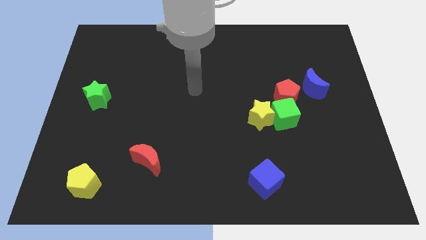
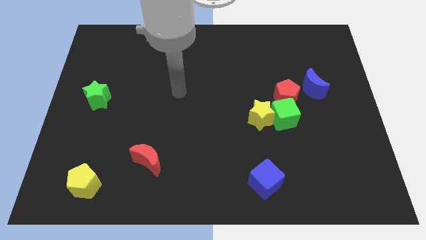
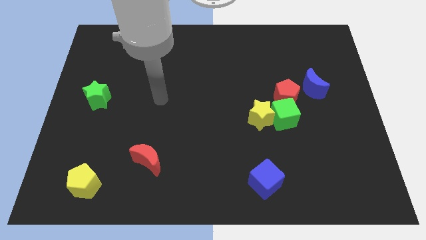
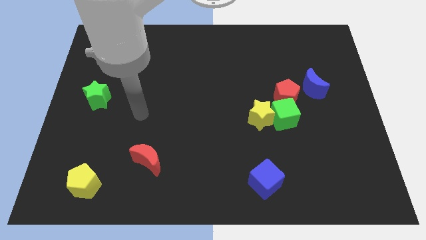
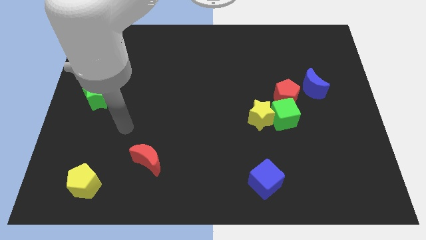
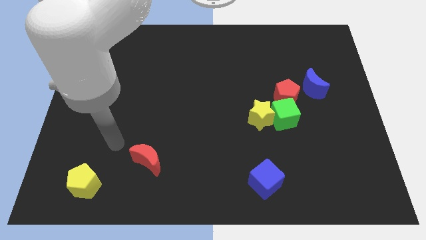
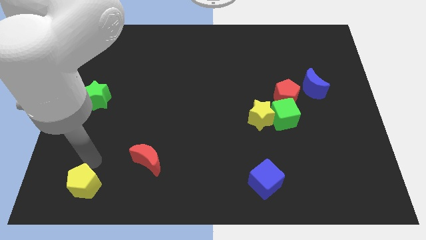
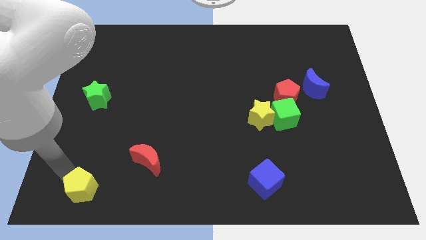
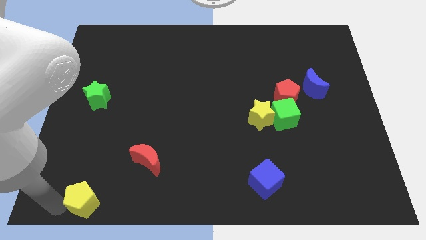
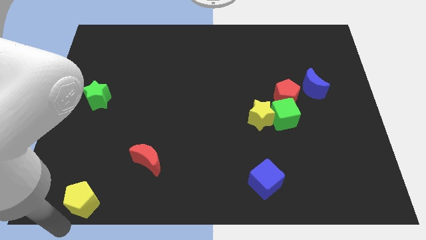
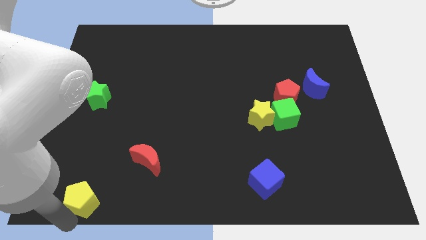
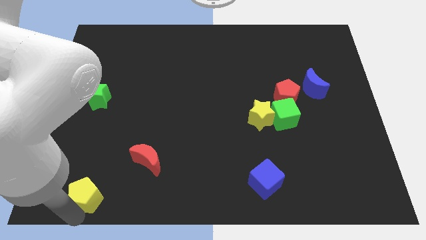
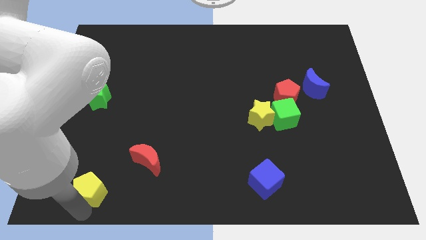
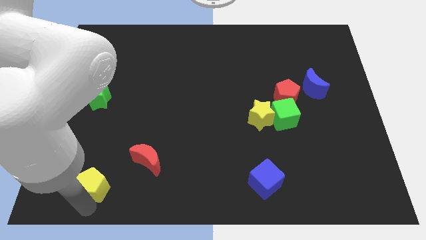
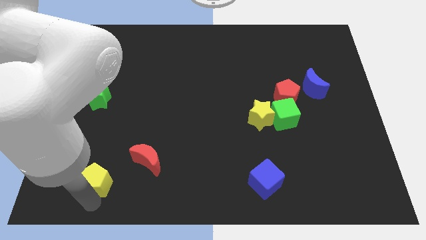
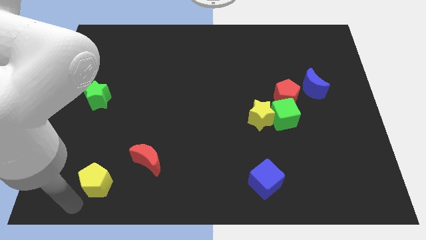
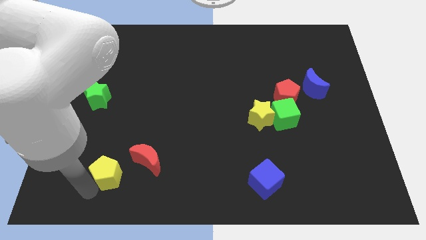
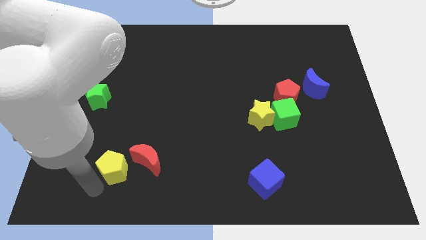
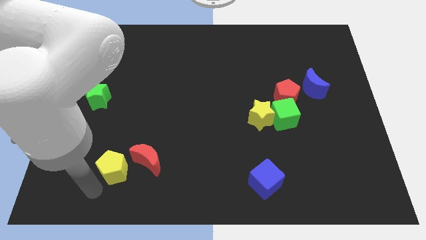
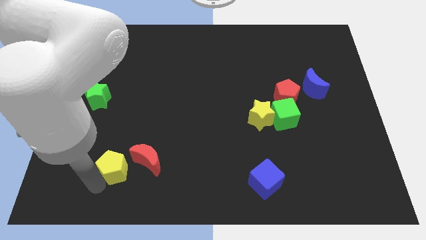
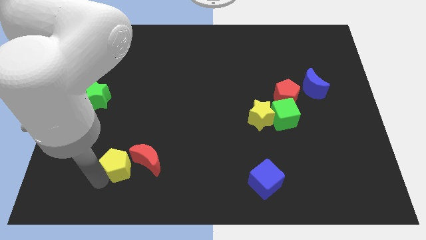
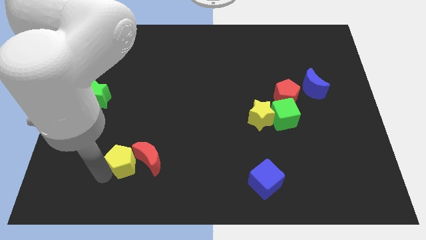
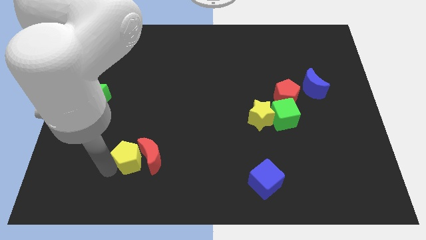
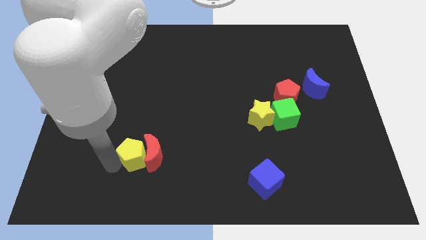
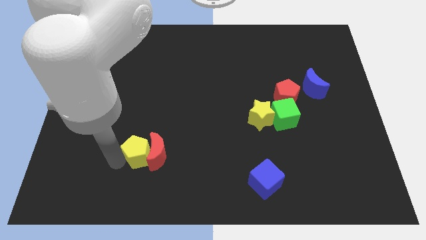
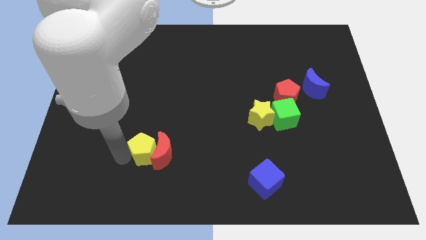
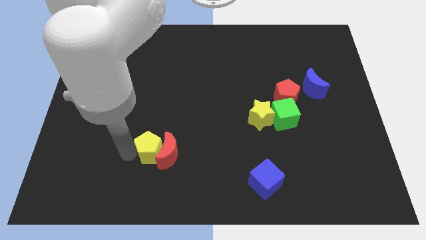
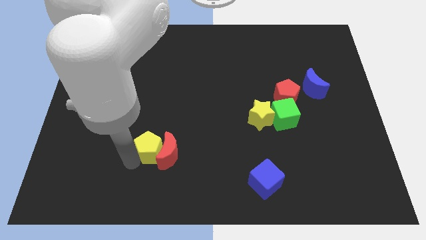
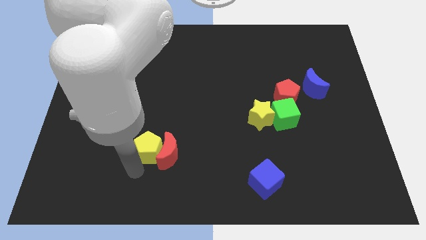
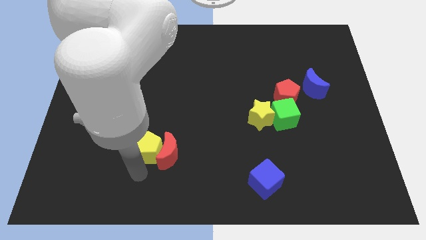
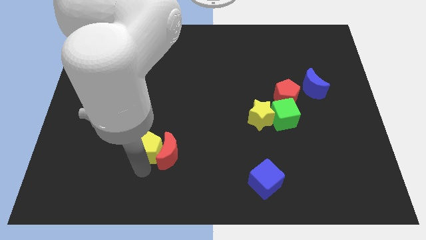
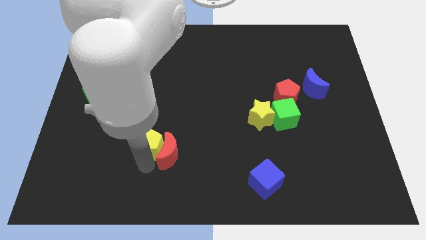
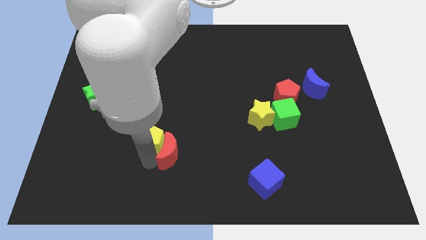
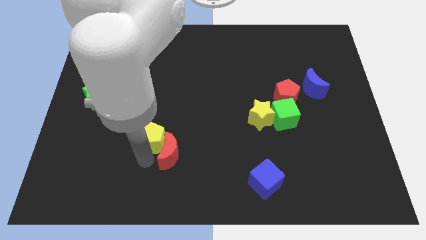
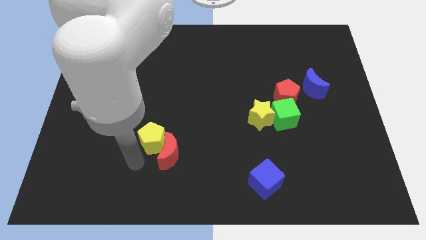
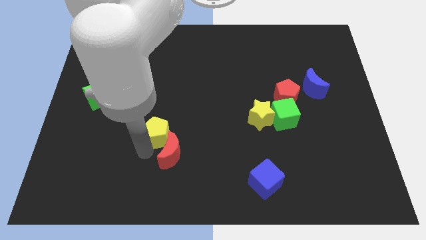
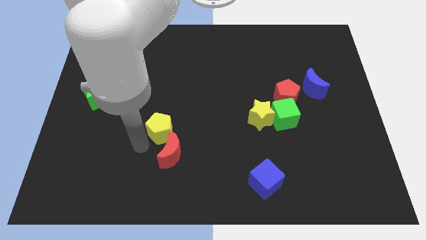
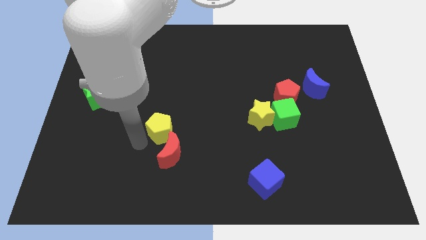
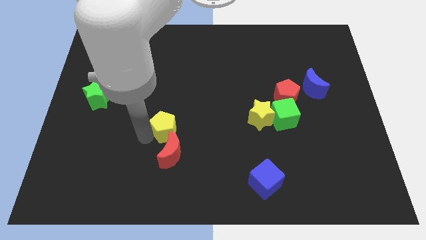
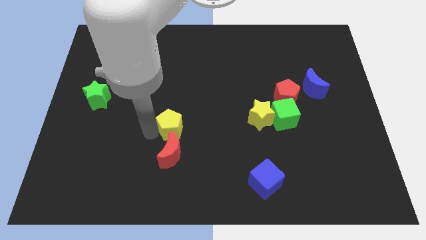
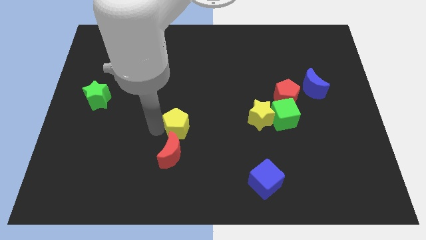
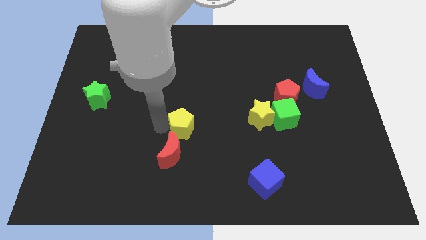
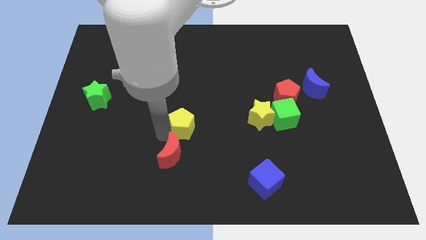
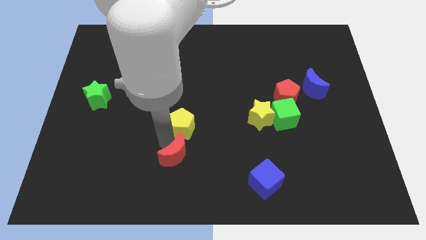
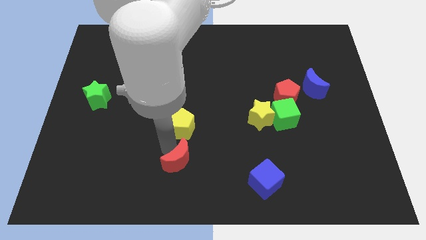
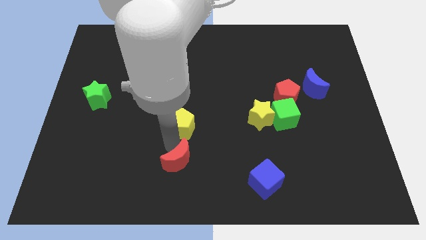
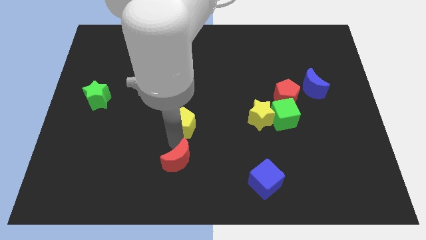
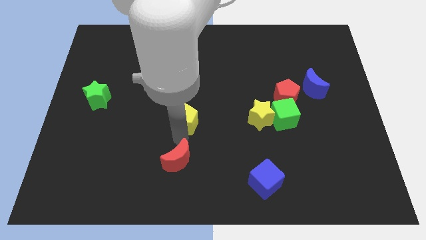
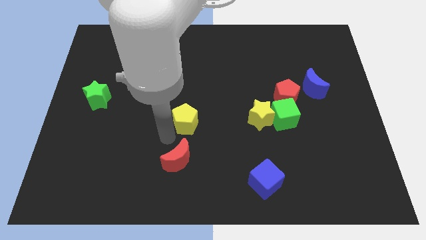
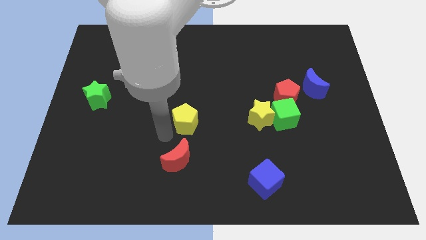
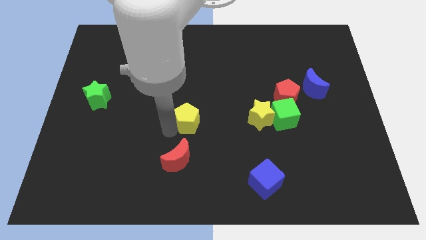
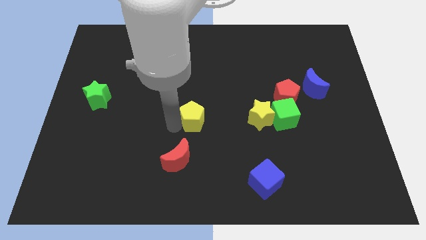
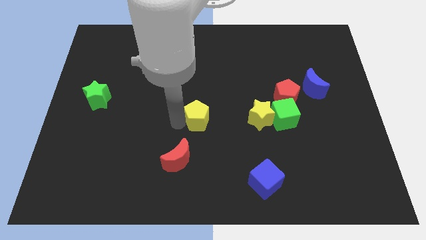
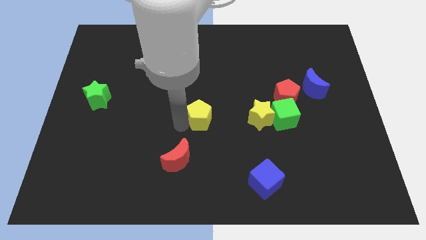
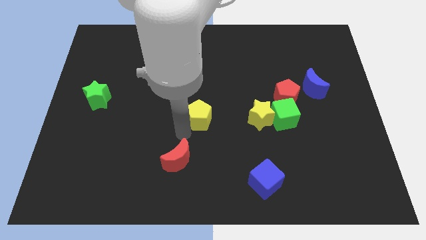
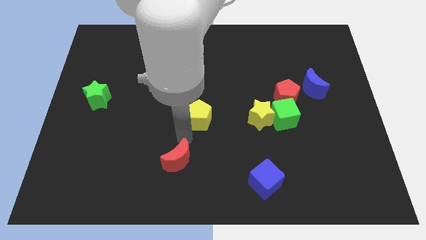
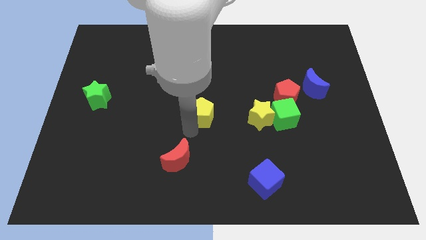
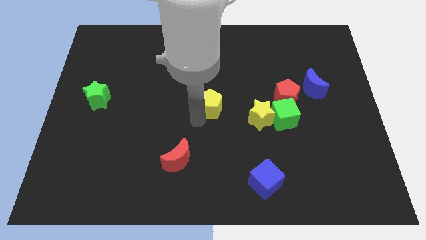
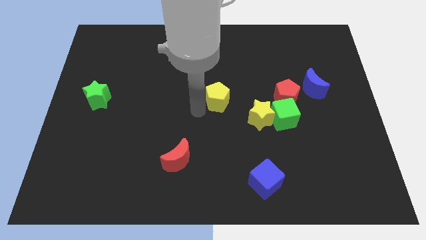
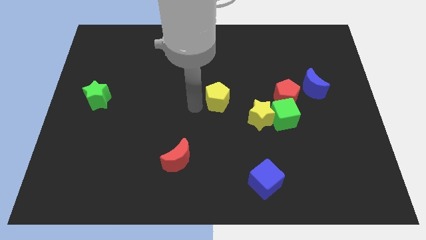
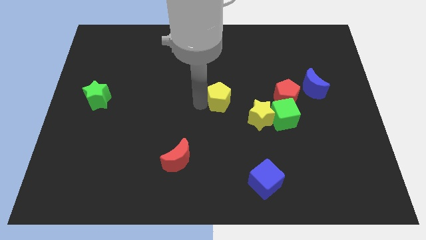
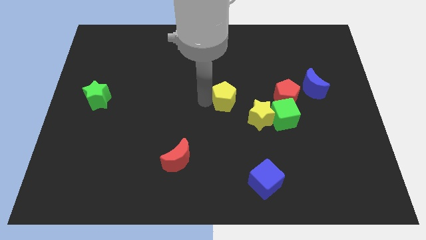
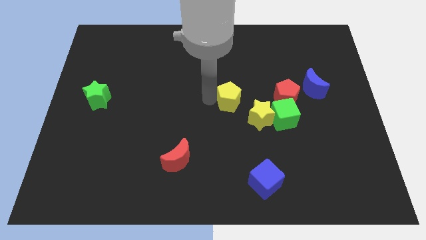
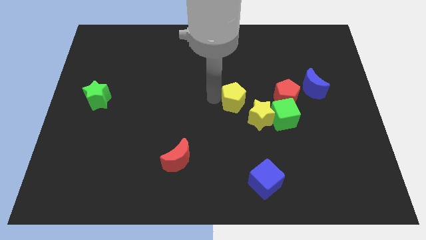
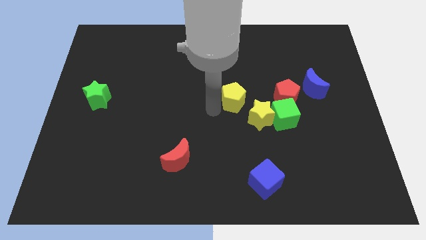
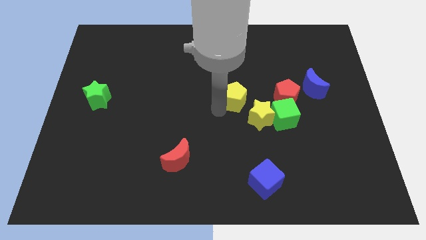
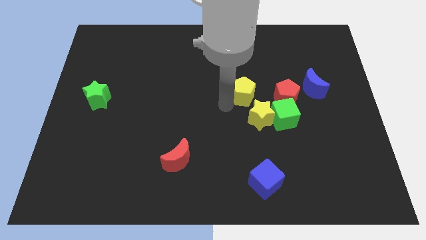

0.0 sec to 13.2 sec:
put the yellow pentagon to the top of the yellow star
